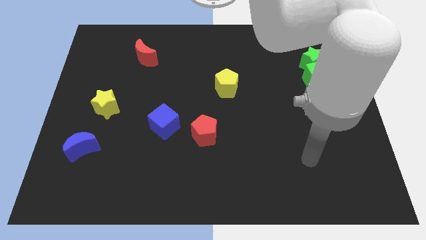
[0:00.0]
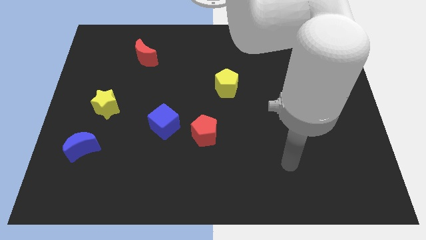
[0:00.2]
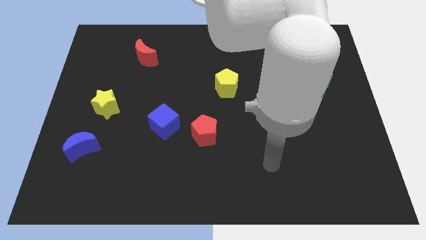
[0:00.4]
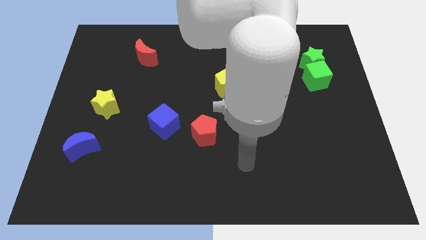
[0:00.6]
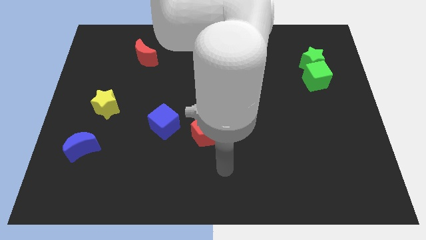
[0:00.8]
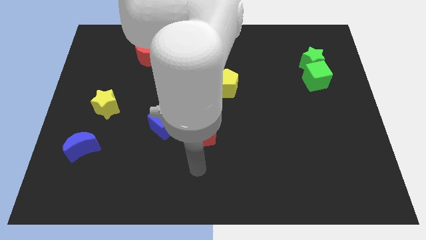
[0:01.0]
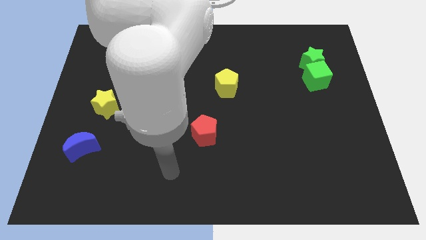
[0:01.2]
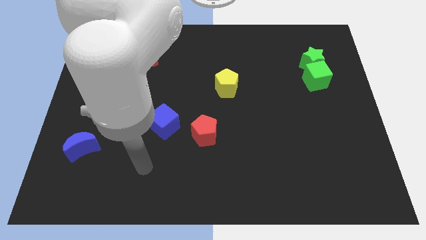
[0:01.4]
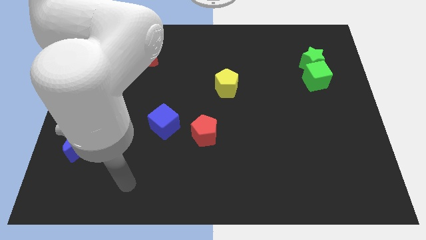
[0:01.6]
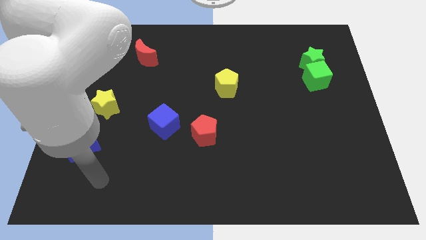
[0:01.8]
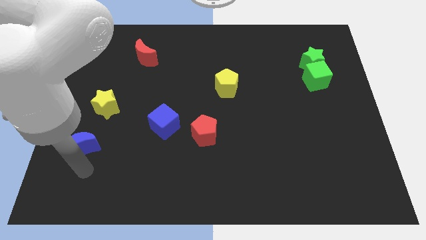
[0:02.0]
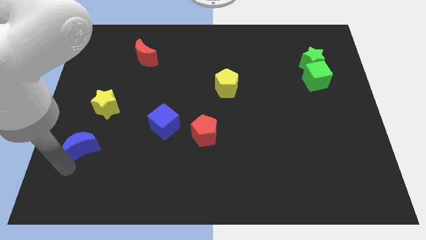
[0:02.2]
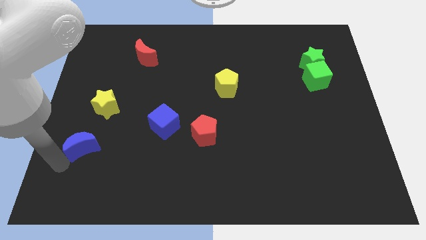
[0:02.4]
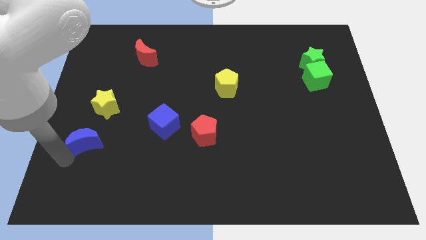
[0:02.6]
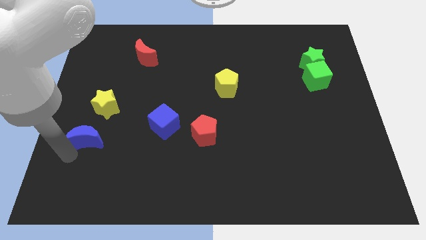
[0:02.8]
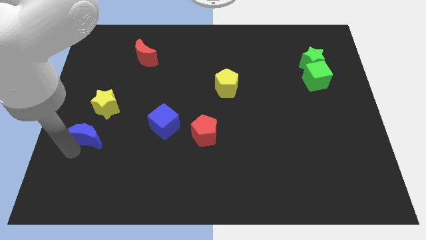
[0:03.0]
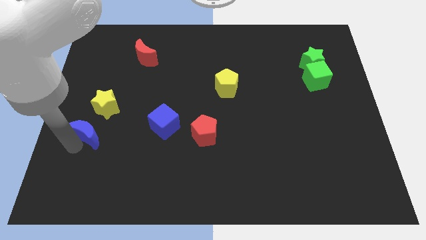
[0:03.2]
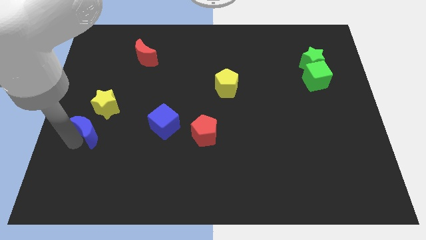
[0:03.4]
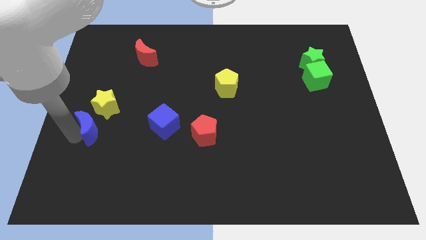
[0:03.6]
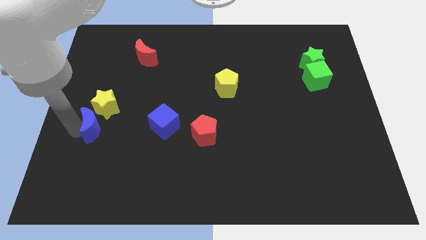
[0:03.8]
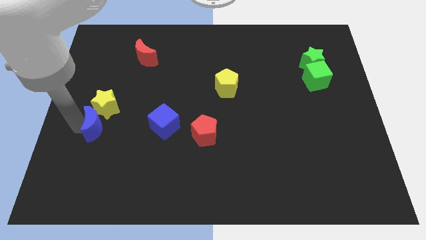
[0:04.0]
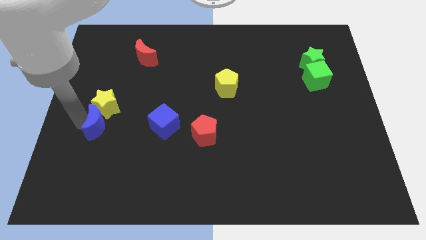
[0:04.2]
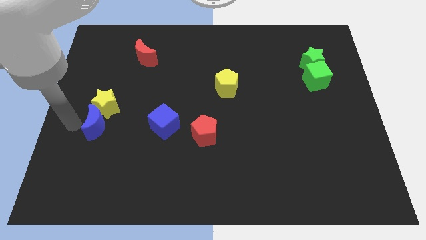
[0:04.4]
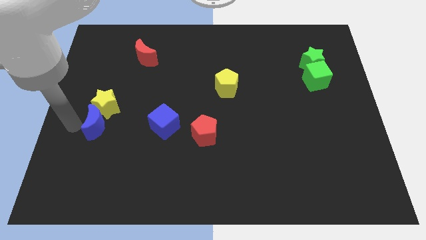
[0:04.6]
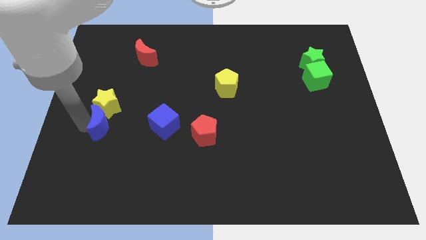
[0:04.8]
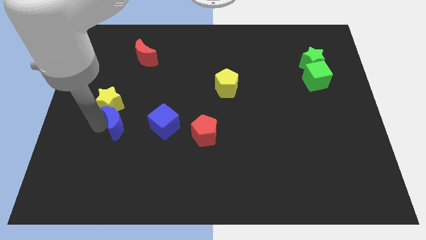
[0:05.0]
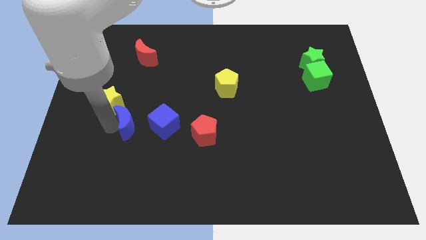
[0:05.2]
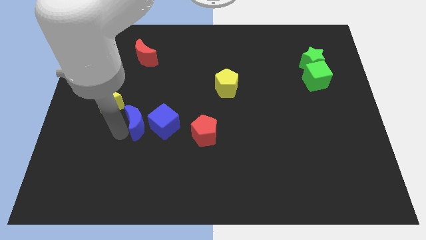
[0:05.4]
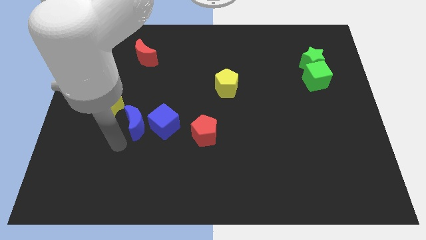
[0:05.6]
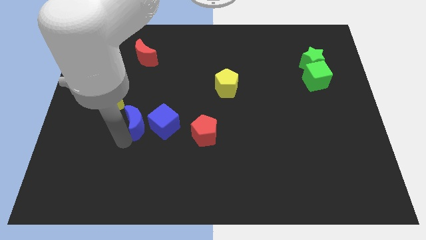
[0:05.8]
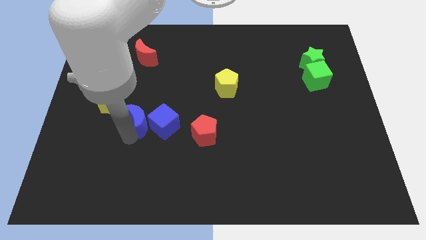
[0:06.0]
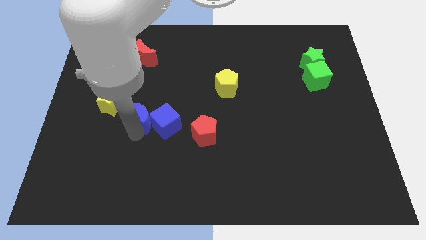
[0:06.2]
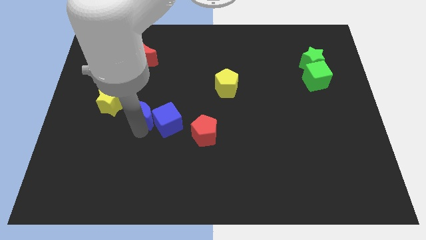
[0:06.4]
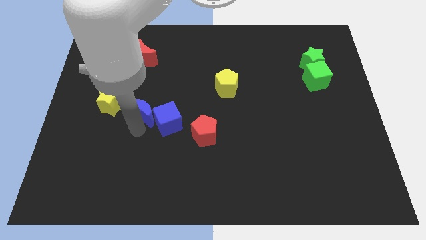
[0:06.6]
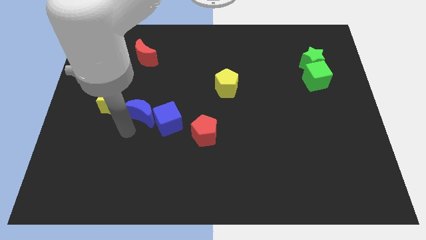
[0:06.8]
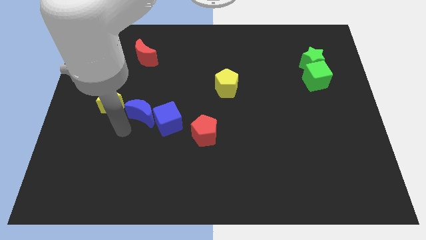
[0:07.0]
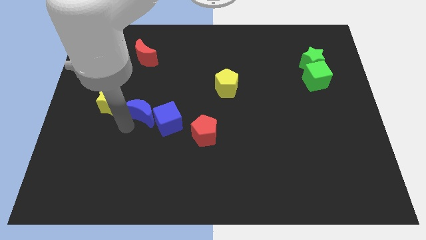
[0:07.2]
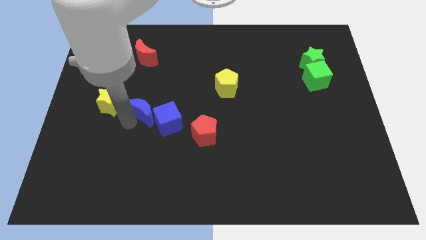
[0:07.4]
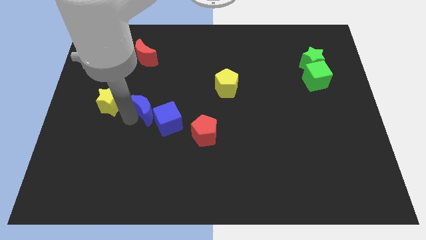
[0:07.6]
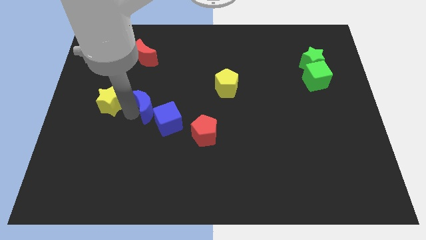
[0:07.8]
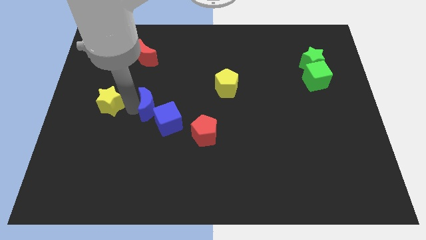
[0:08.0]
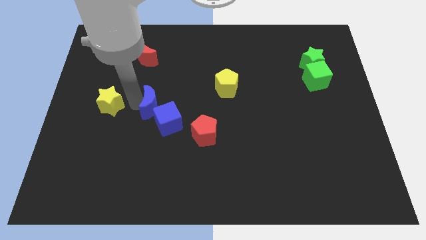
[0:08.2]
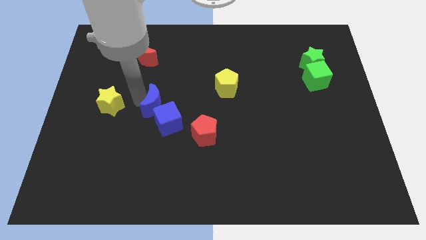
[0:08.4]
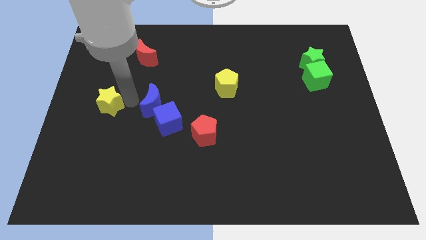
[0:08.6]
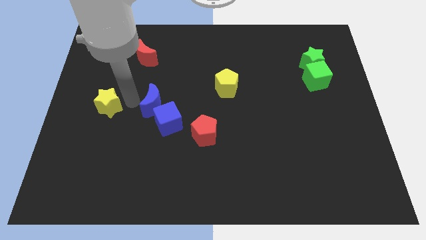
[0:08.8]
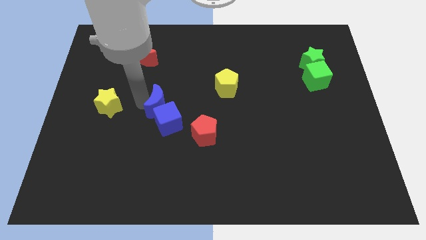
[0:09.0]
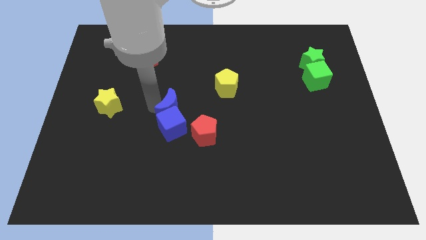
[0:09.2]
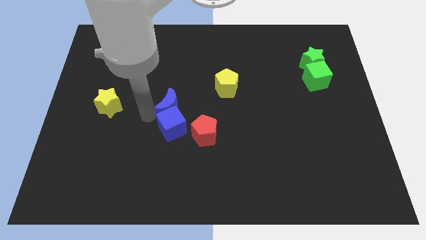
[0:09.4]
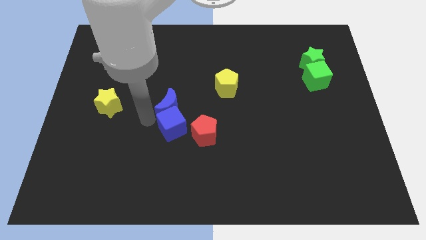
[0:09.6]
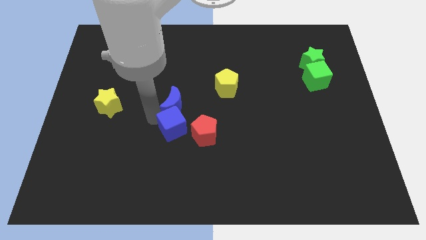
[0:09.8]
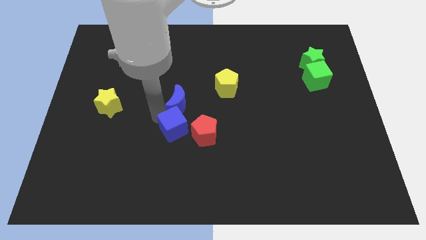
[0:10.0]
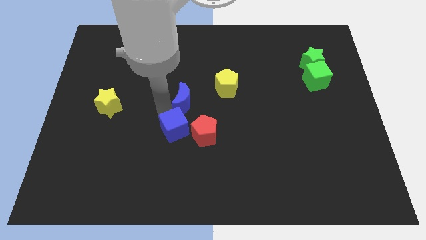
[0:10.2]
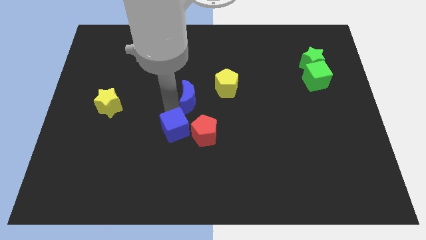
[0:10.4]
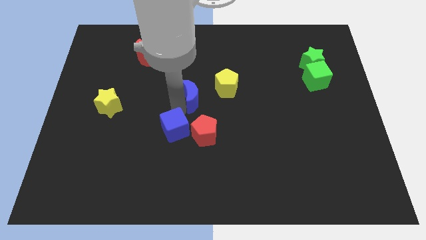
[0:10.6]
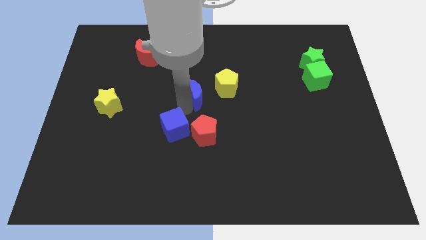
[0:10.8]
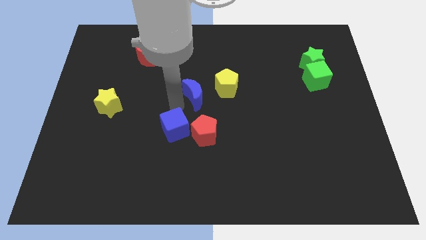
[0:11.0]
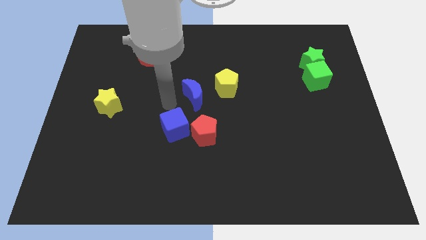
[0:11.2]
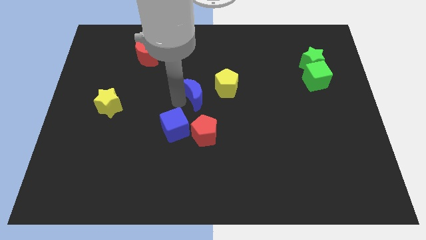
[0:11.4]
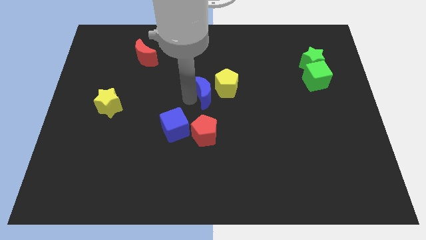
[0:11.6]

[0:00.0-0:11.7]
slide the blue moon towards the yellow pentagon
